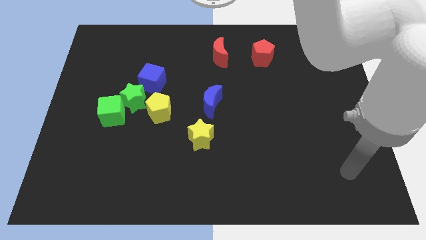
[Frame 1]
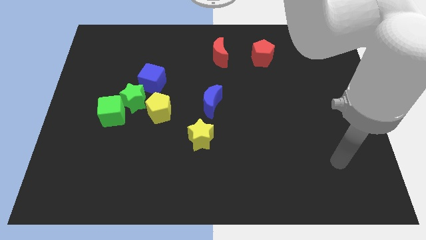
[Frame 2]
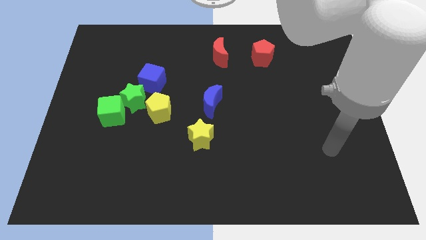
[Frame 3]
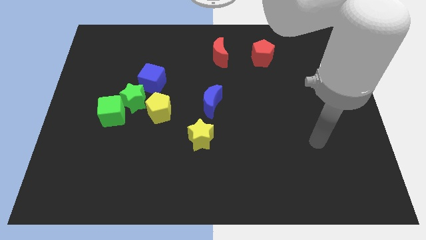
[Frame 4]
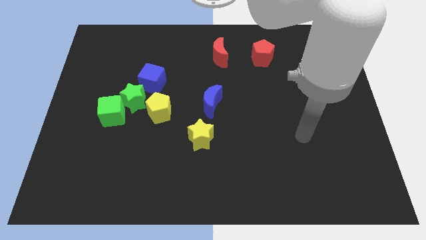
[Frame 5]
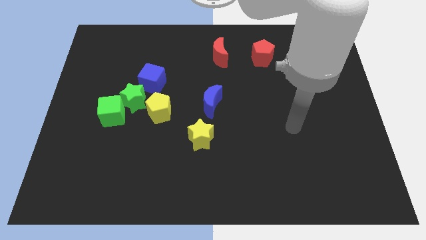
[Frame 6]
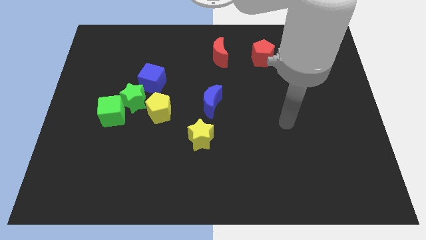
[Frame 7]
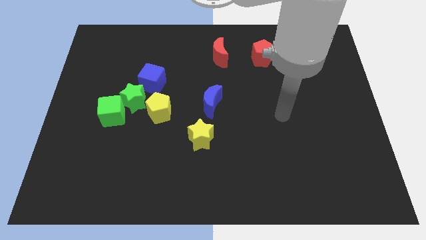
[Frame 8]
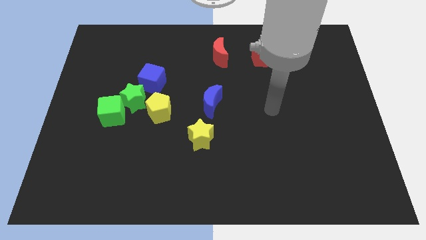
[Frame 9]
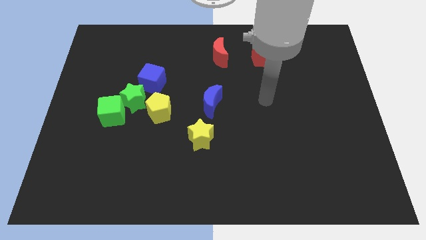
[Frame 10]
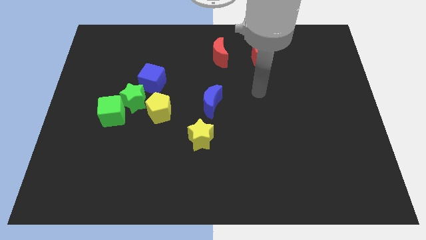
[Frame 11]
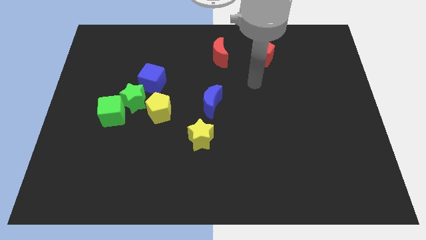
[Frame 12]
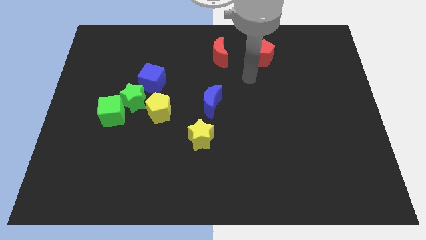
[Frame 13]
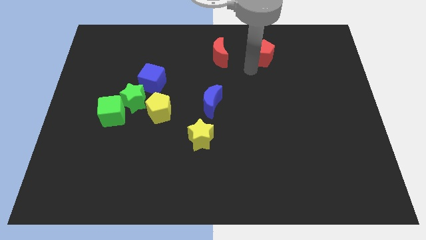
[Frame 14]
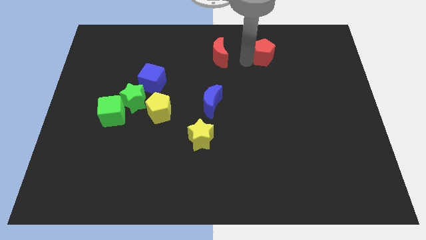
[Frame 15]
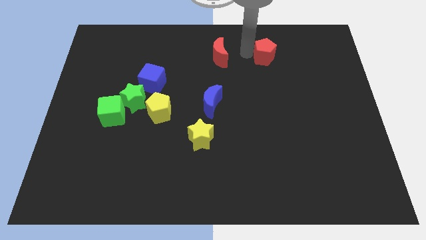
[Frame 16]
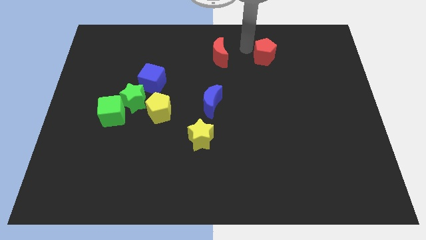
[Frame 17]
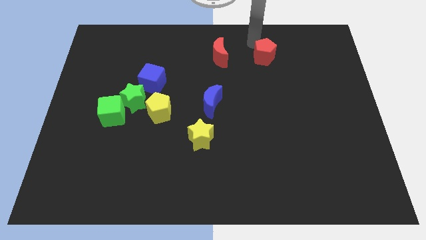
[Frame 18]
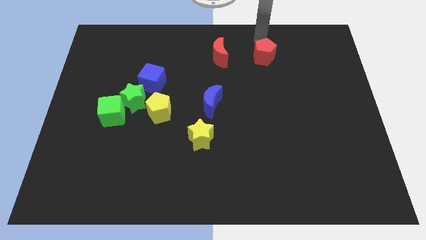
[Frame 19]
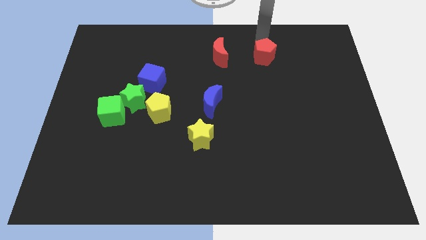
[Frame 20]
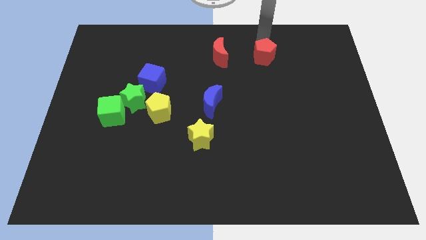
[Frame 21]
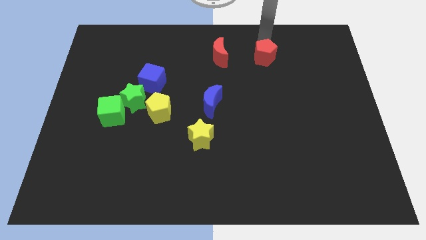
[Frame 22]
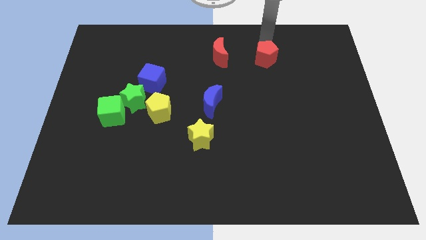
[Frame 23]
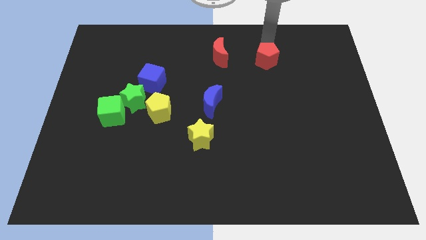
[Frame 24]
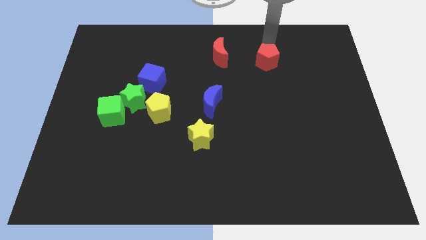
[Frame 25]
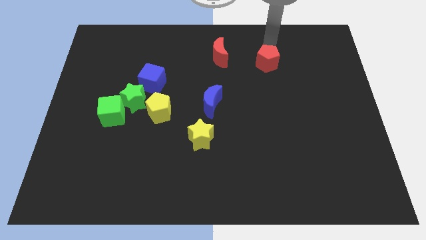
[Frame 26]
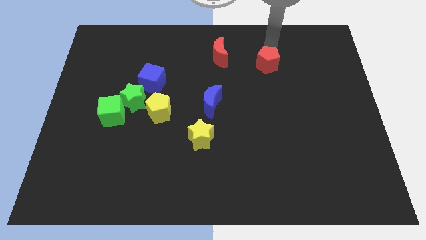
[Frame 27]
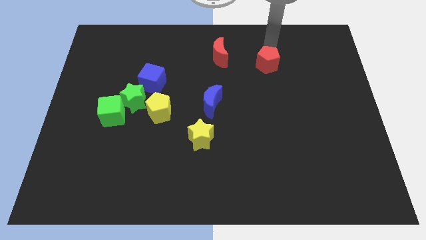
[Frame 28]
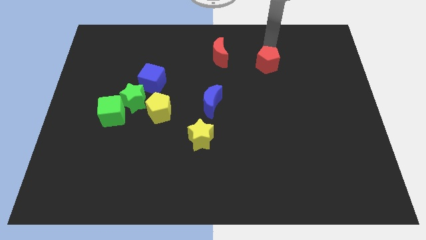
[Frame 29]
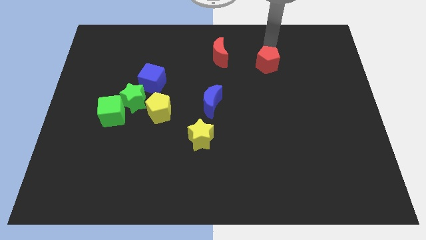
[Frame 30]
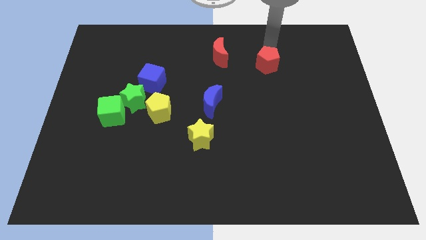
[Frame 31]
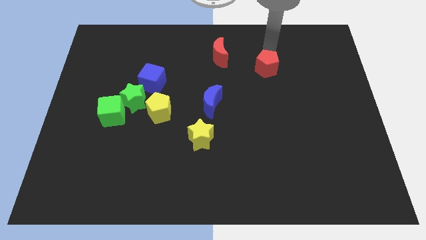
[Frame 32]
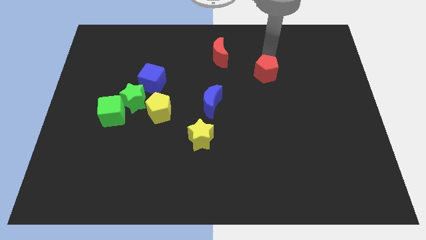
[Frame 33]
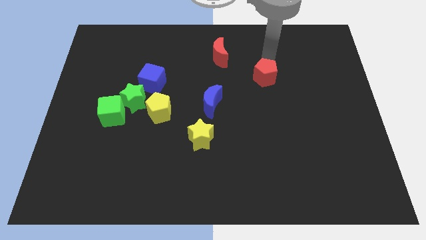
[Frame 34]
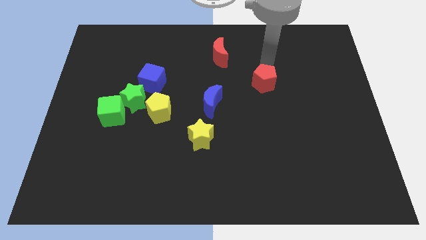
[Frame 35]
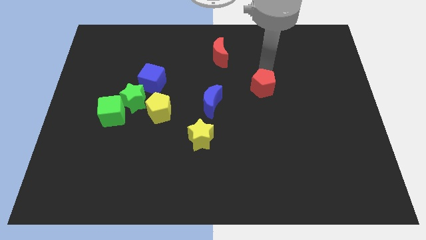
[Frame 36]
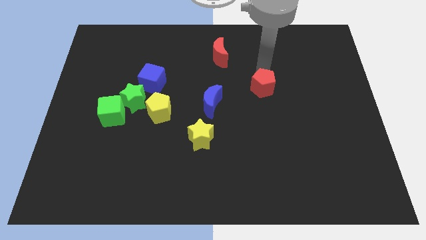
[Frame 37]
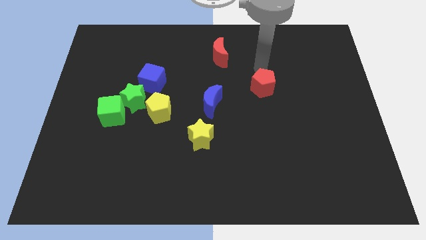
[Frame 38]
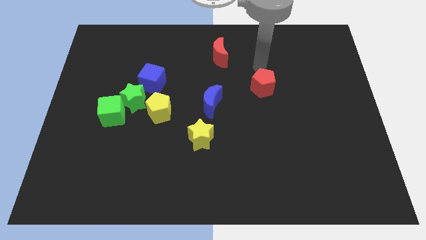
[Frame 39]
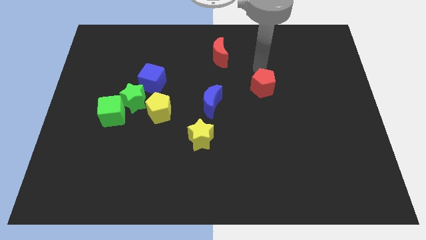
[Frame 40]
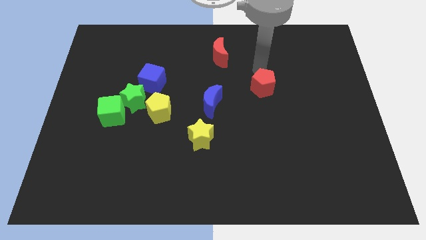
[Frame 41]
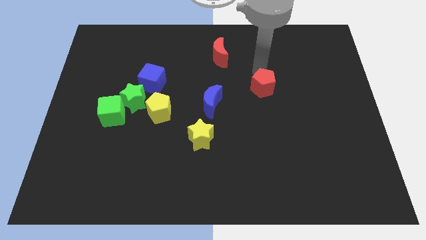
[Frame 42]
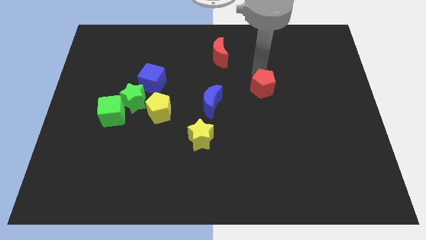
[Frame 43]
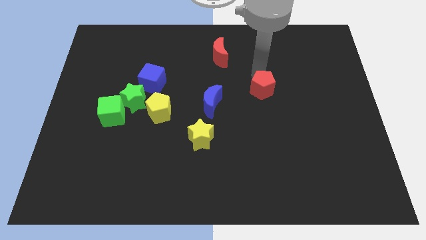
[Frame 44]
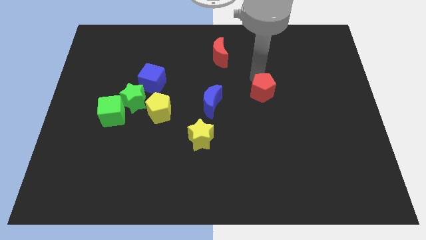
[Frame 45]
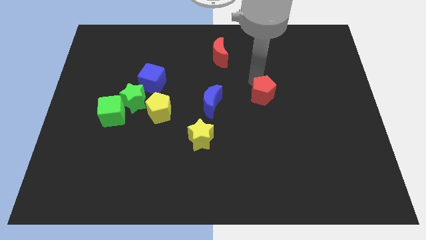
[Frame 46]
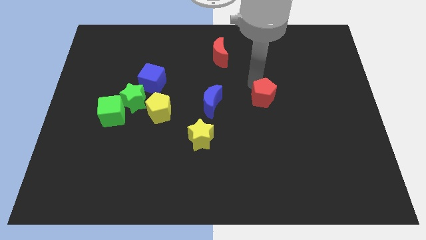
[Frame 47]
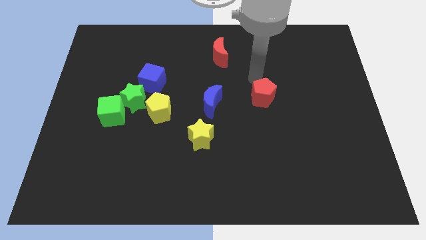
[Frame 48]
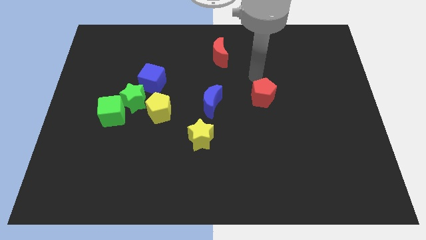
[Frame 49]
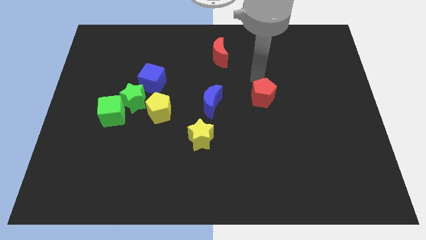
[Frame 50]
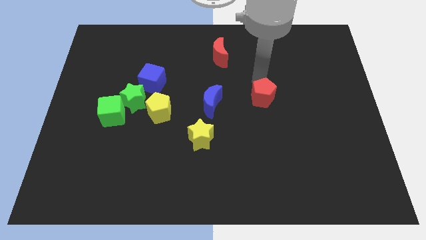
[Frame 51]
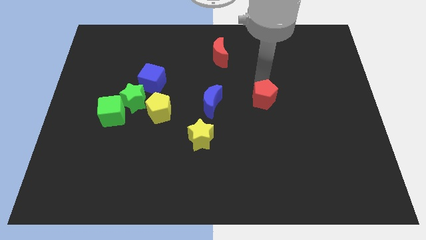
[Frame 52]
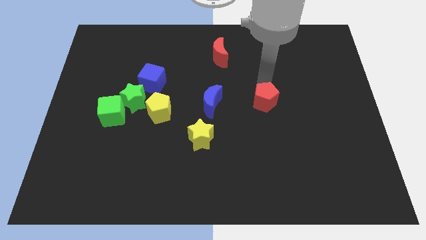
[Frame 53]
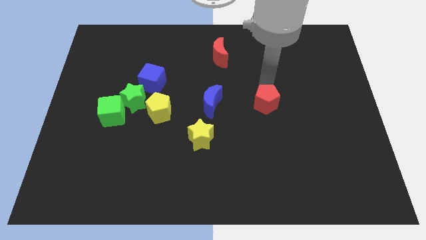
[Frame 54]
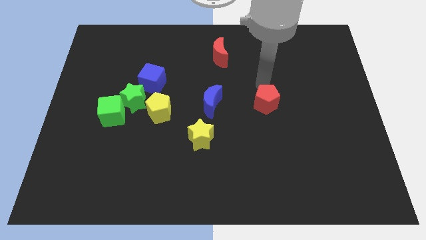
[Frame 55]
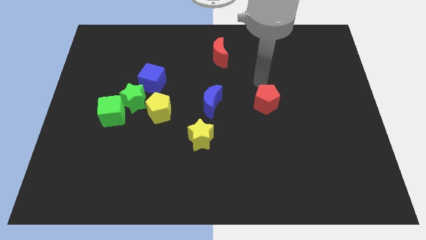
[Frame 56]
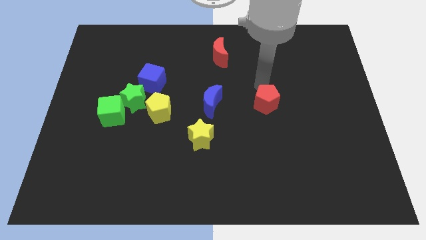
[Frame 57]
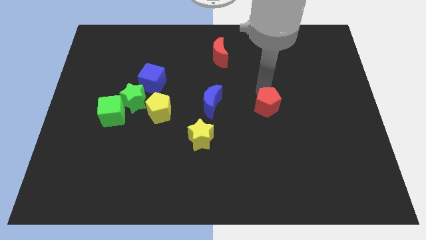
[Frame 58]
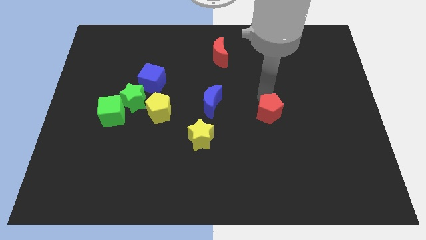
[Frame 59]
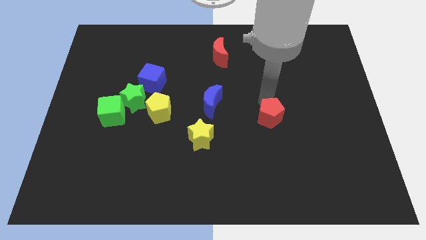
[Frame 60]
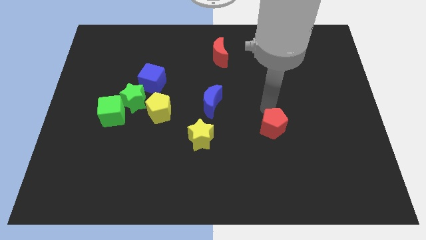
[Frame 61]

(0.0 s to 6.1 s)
slide the red pentagon downwards

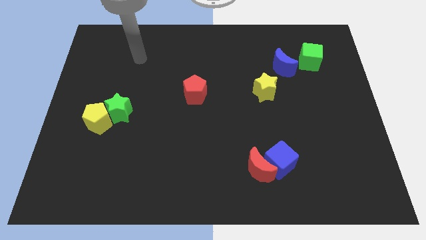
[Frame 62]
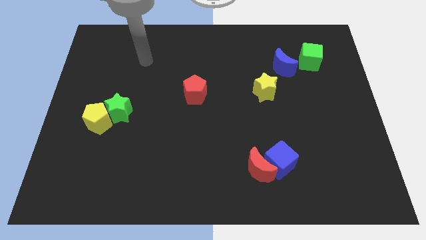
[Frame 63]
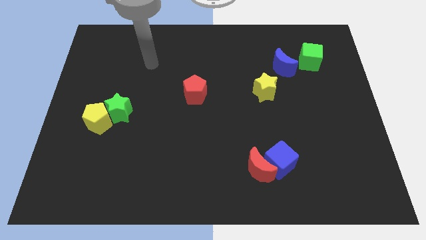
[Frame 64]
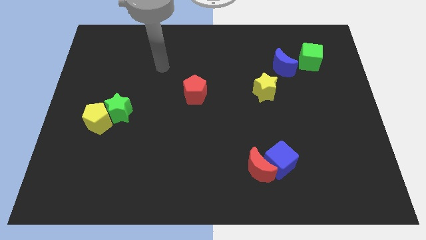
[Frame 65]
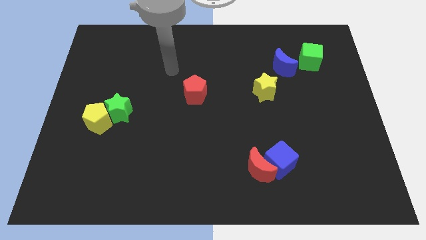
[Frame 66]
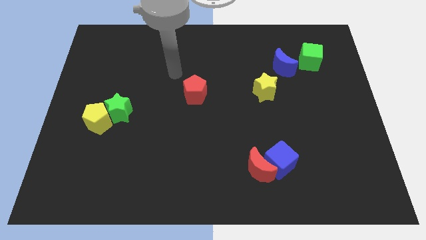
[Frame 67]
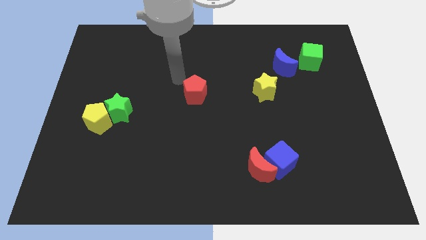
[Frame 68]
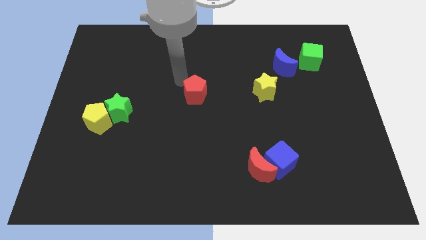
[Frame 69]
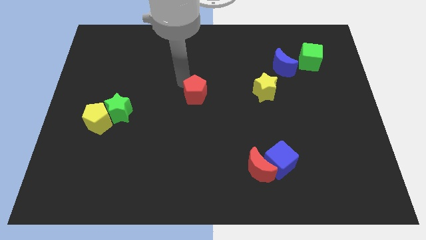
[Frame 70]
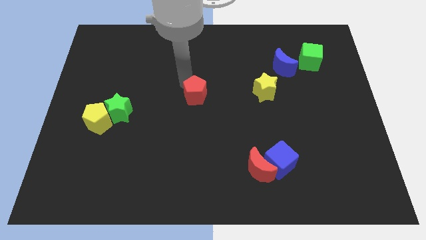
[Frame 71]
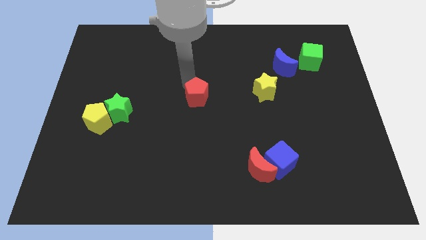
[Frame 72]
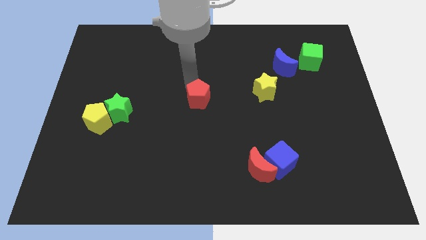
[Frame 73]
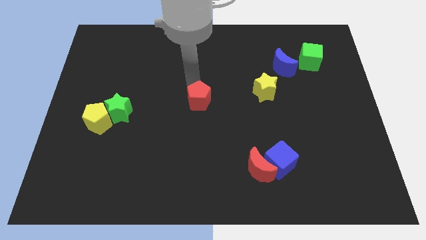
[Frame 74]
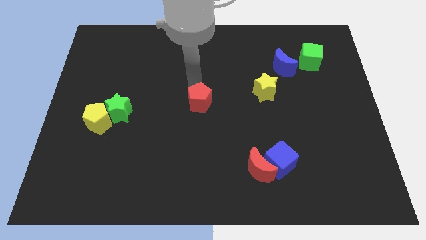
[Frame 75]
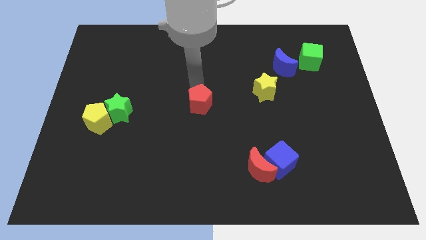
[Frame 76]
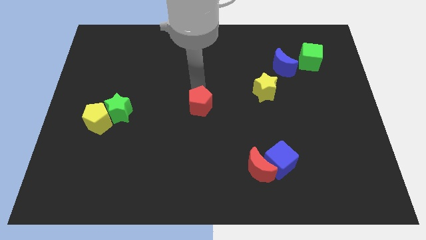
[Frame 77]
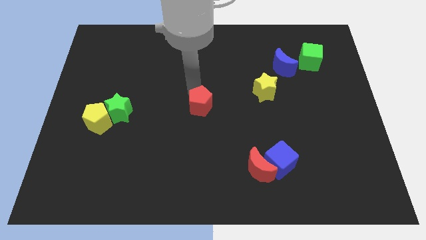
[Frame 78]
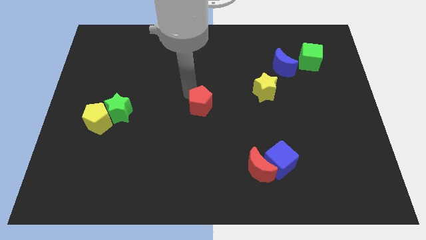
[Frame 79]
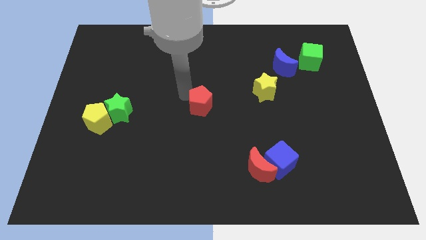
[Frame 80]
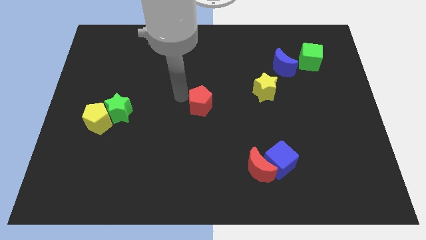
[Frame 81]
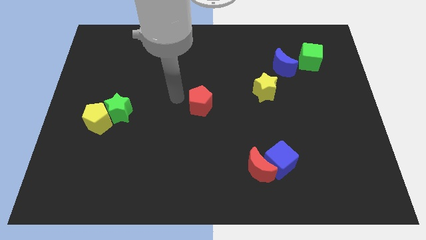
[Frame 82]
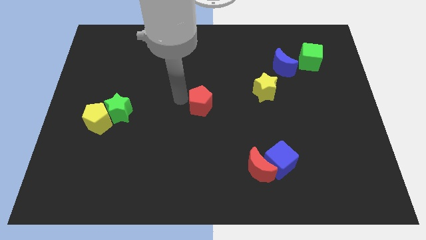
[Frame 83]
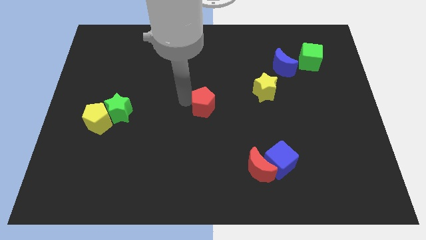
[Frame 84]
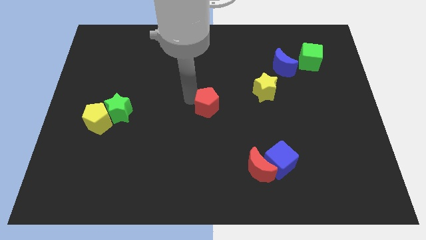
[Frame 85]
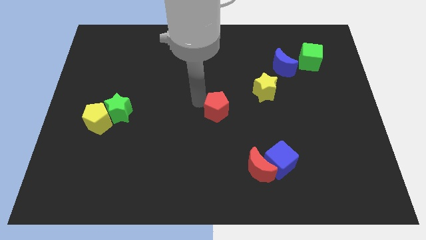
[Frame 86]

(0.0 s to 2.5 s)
slide the red pentagon diagonally downwards and to the right a bit
